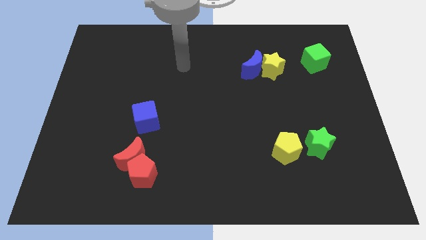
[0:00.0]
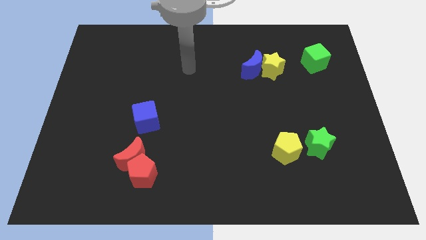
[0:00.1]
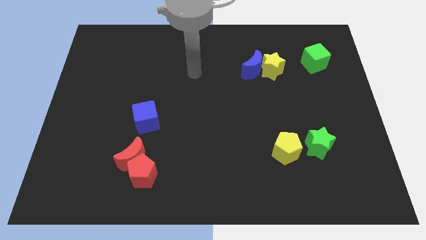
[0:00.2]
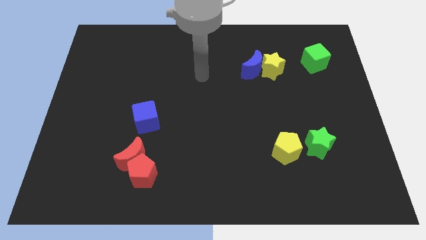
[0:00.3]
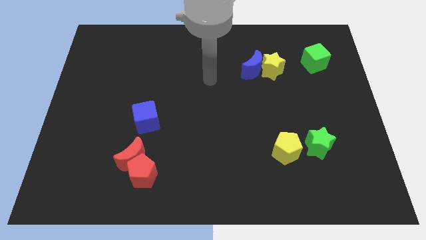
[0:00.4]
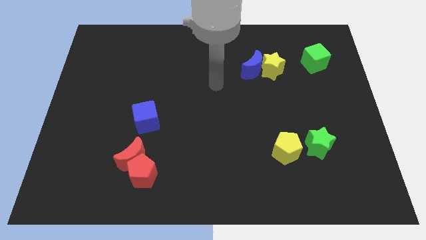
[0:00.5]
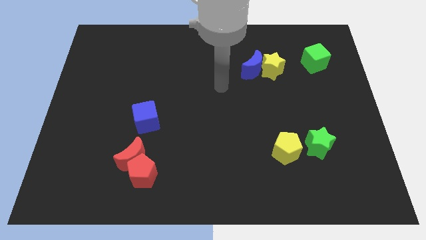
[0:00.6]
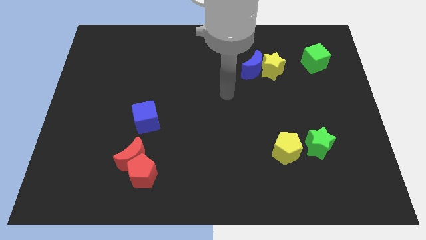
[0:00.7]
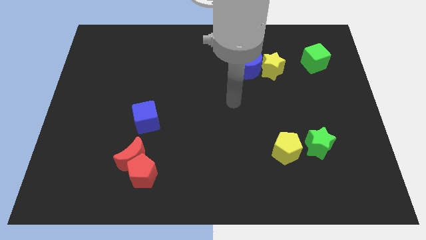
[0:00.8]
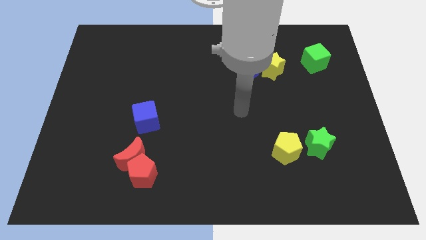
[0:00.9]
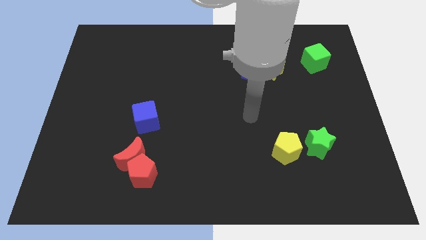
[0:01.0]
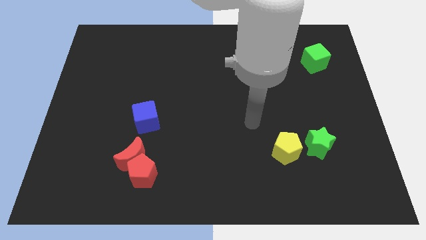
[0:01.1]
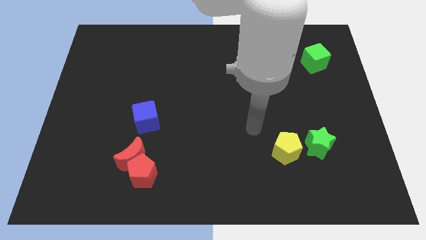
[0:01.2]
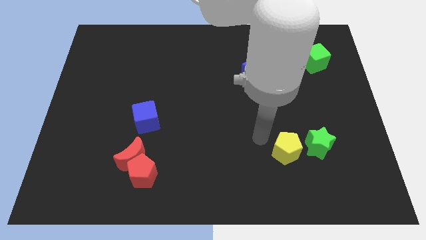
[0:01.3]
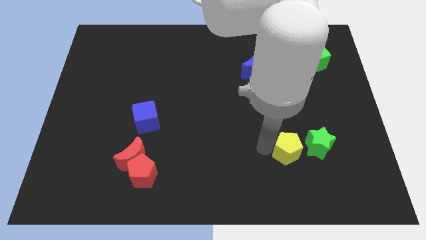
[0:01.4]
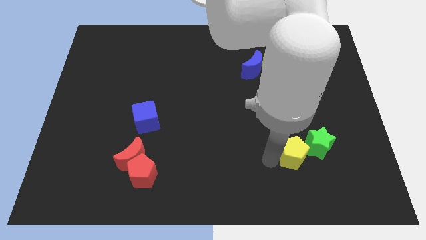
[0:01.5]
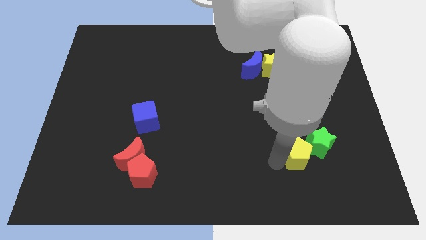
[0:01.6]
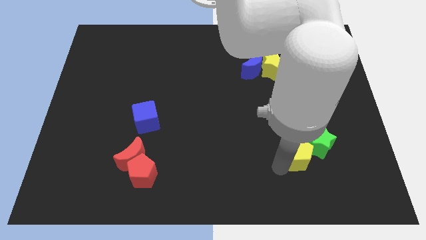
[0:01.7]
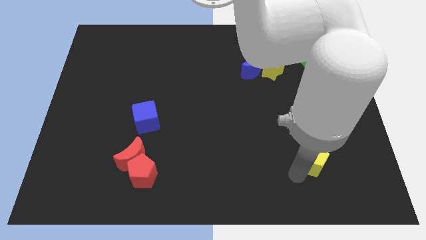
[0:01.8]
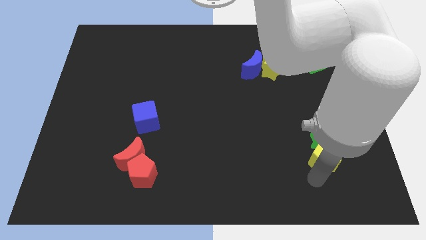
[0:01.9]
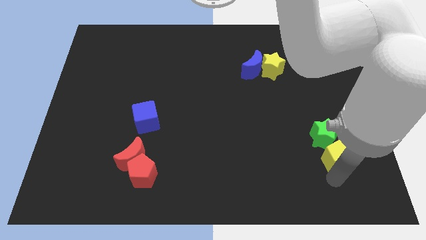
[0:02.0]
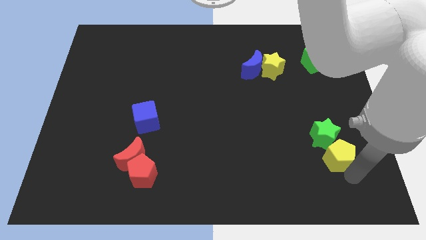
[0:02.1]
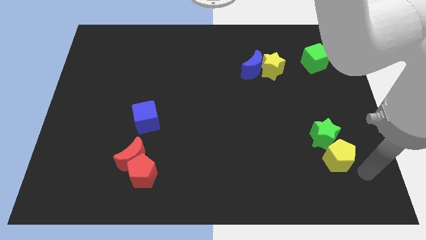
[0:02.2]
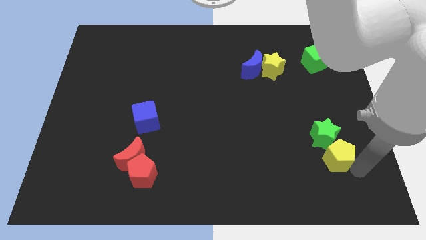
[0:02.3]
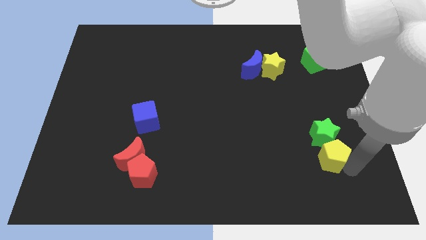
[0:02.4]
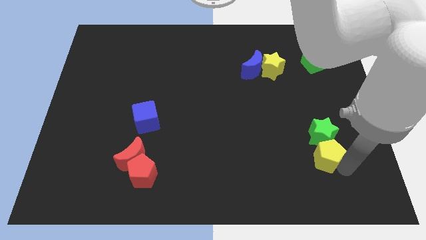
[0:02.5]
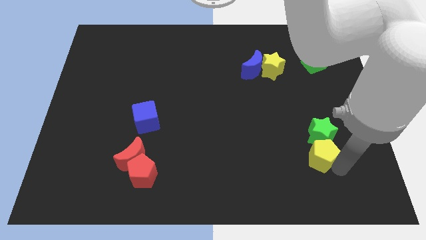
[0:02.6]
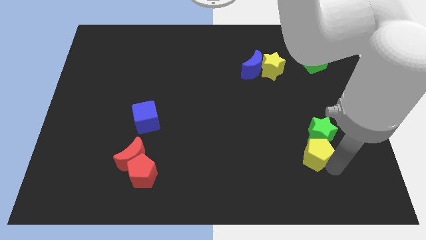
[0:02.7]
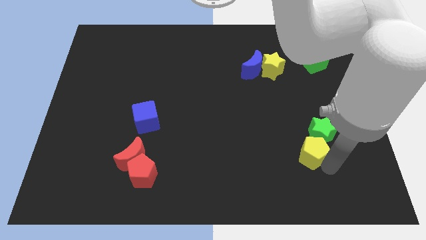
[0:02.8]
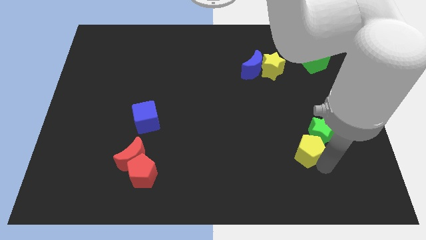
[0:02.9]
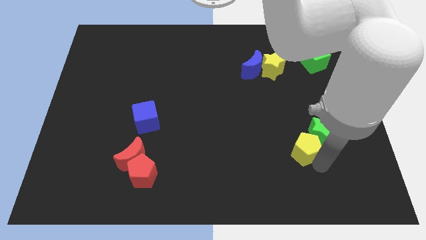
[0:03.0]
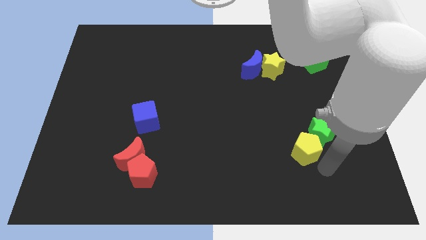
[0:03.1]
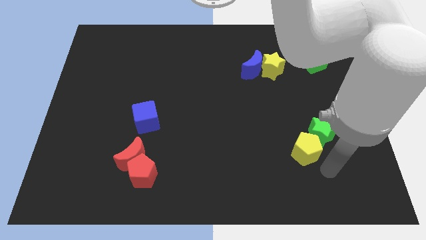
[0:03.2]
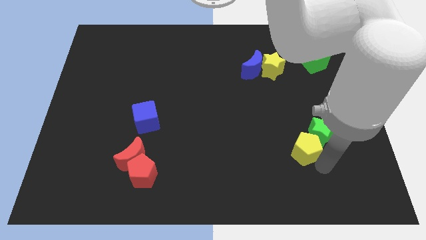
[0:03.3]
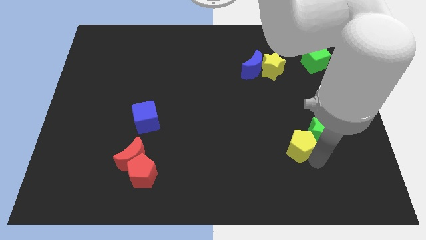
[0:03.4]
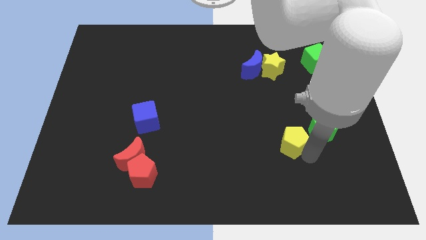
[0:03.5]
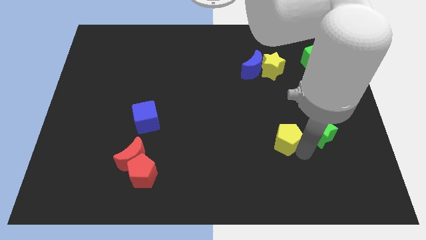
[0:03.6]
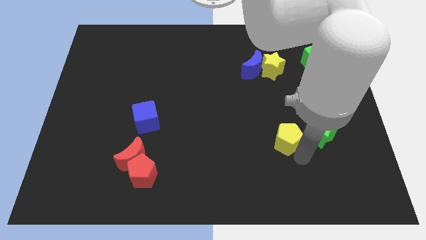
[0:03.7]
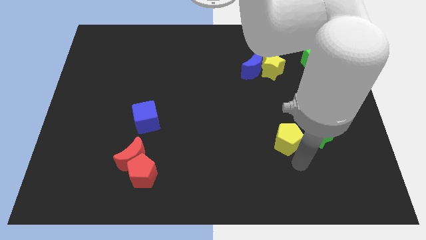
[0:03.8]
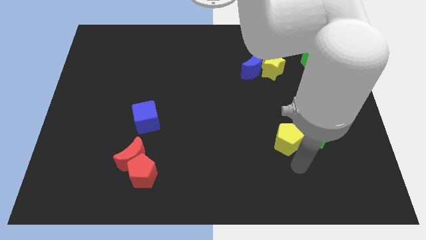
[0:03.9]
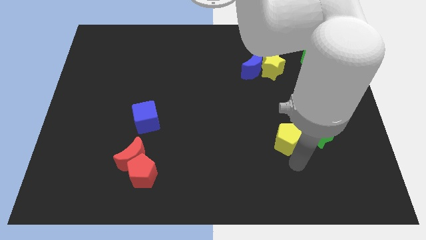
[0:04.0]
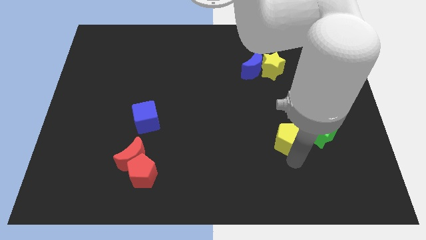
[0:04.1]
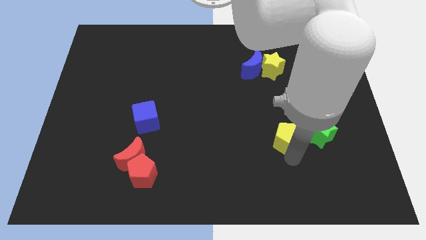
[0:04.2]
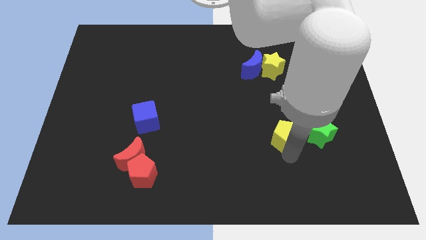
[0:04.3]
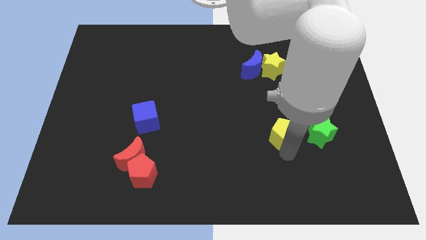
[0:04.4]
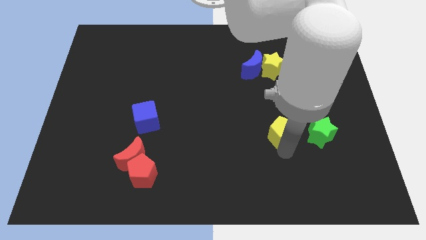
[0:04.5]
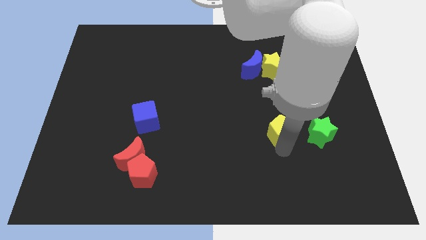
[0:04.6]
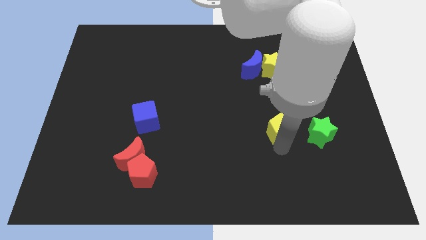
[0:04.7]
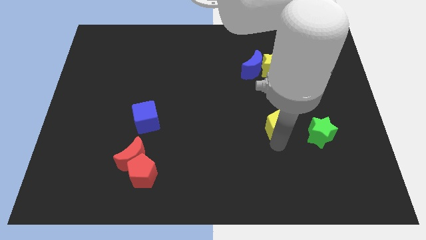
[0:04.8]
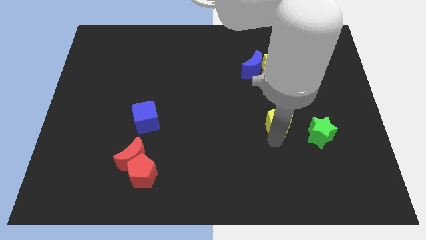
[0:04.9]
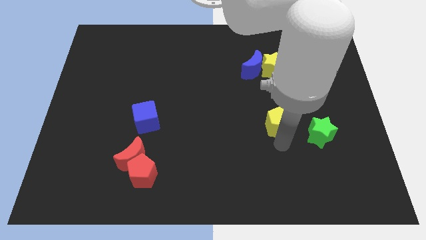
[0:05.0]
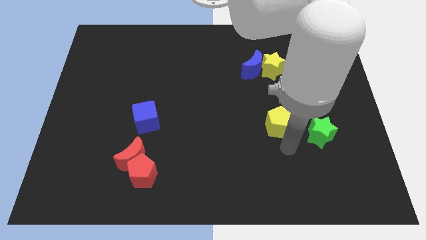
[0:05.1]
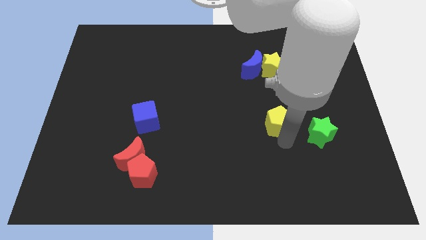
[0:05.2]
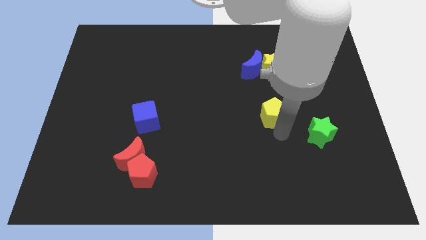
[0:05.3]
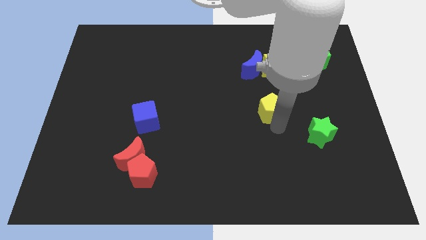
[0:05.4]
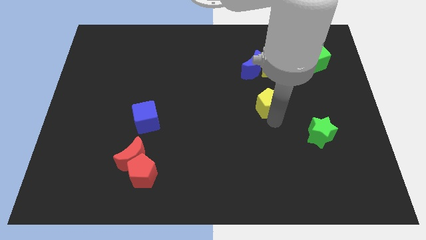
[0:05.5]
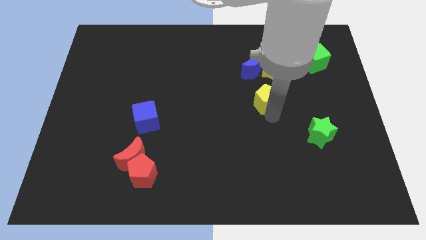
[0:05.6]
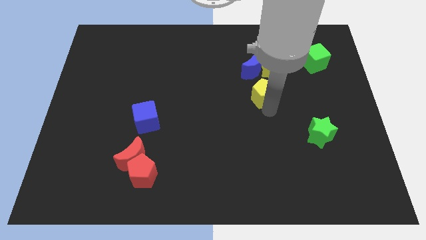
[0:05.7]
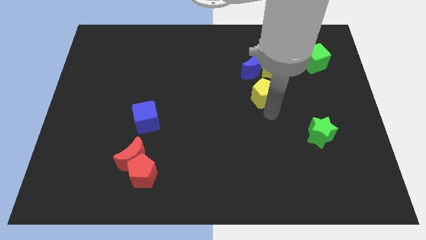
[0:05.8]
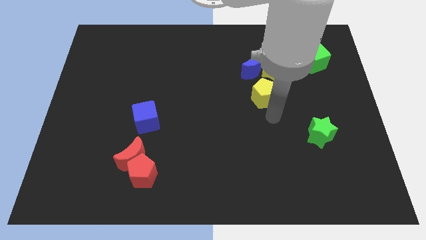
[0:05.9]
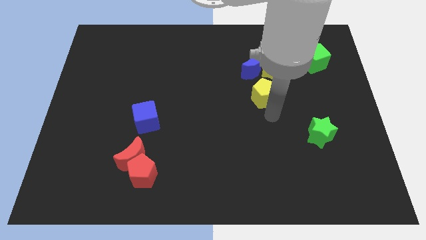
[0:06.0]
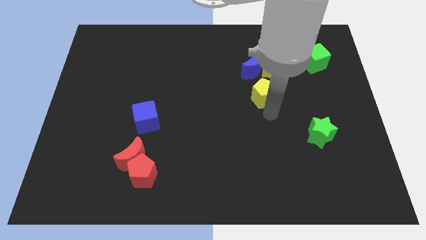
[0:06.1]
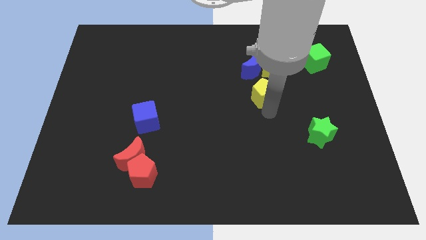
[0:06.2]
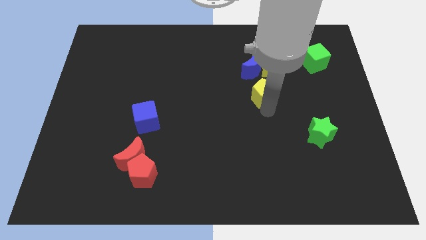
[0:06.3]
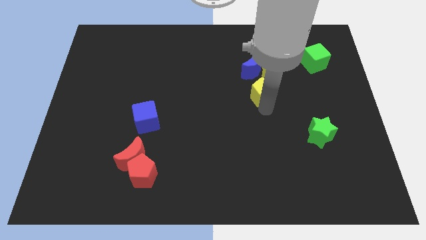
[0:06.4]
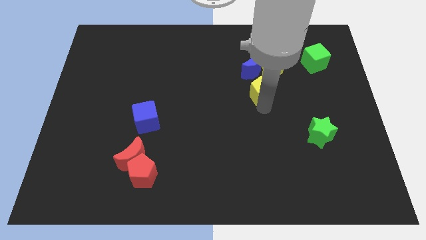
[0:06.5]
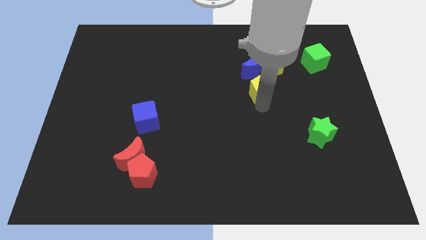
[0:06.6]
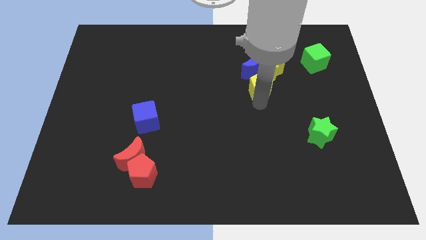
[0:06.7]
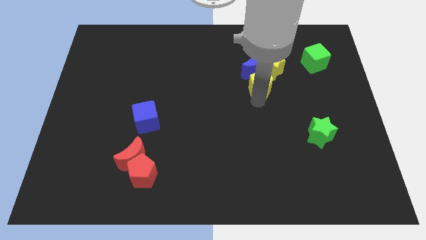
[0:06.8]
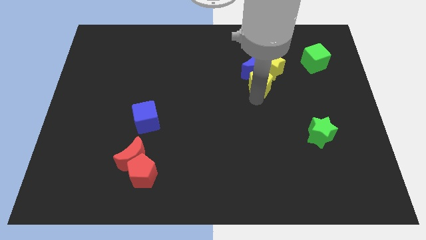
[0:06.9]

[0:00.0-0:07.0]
slide the yellow pentagon next to the blue moon
